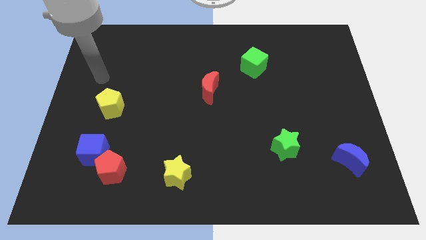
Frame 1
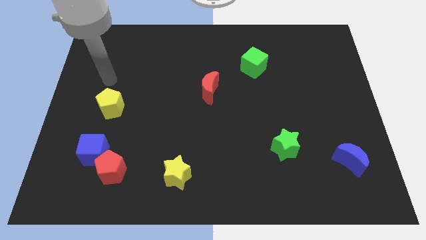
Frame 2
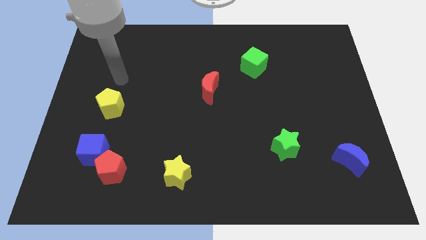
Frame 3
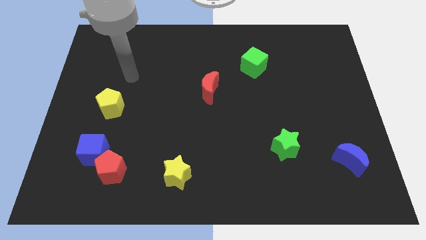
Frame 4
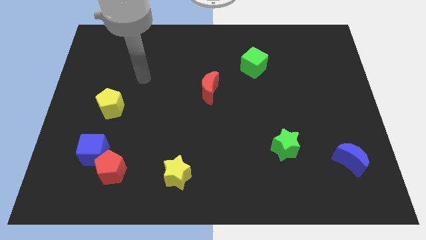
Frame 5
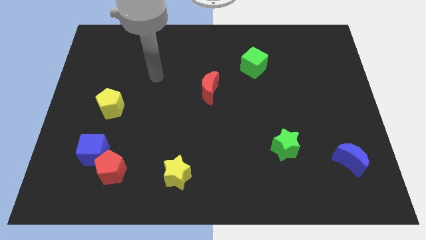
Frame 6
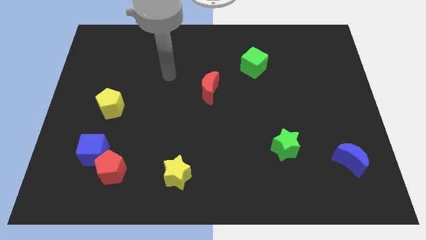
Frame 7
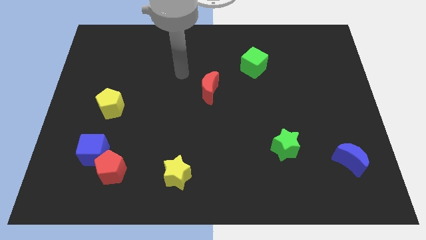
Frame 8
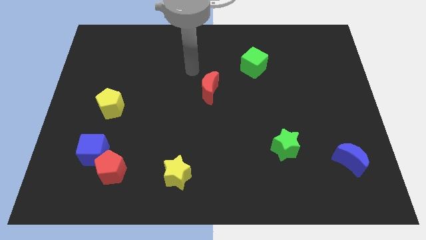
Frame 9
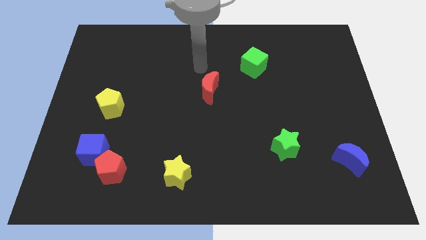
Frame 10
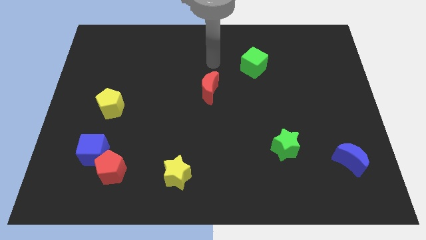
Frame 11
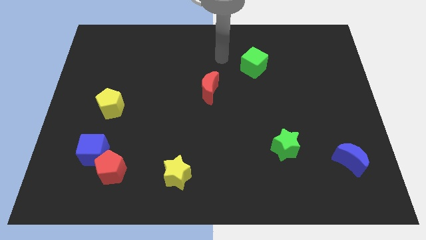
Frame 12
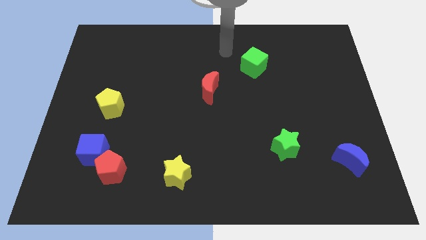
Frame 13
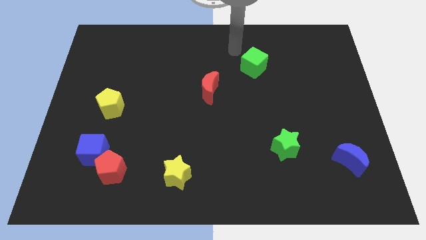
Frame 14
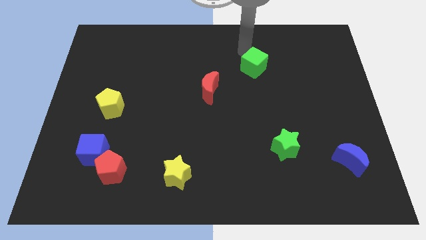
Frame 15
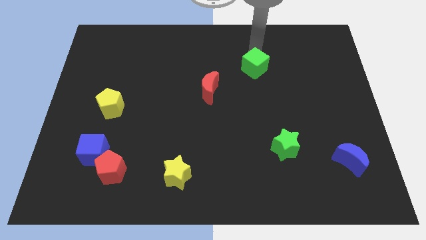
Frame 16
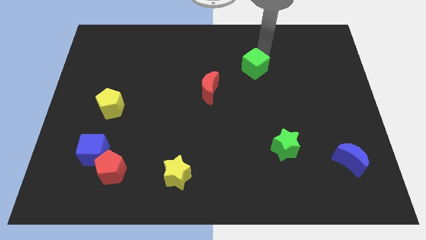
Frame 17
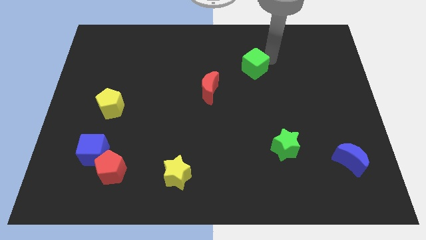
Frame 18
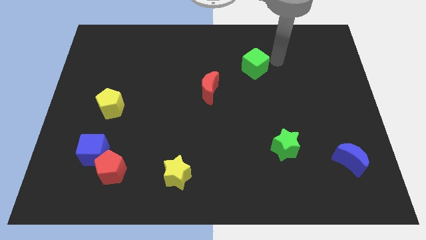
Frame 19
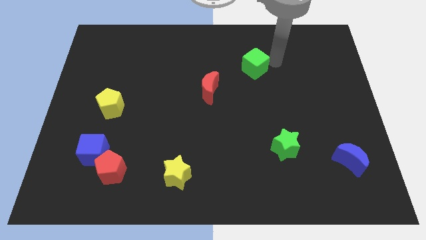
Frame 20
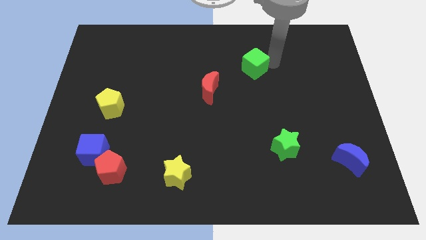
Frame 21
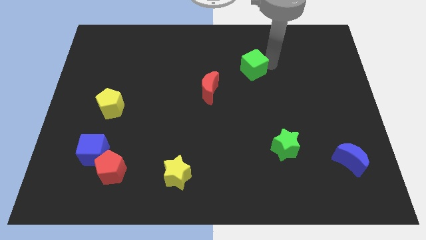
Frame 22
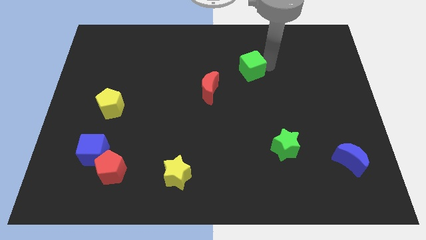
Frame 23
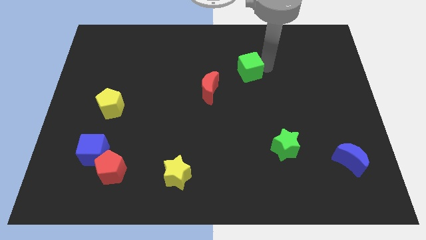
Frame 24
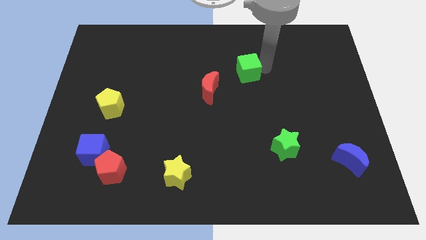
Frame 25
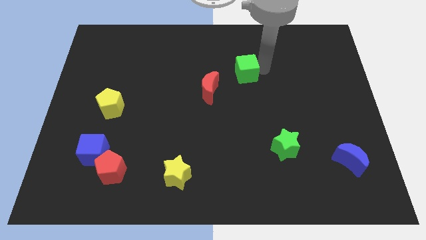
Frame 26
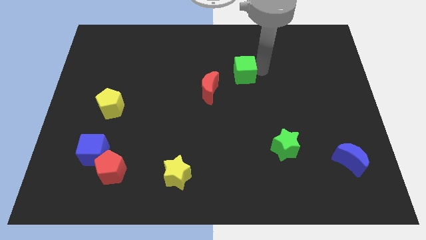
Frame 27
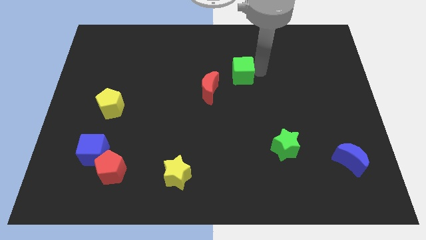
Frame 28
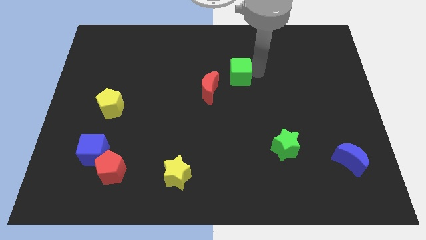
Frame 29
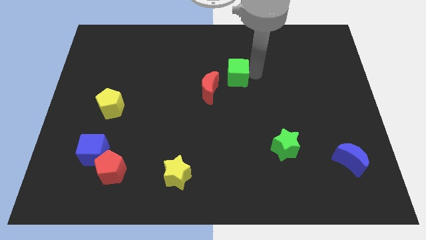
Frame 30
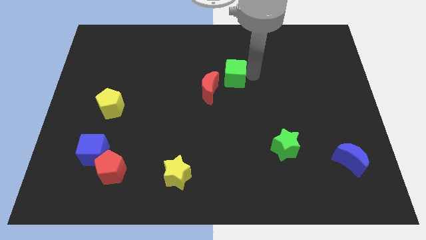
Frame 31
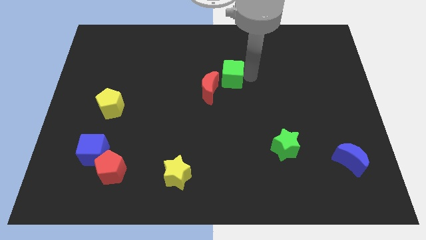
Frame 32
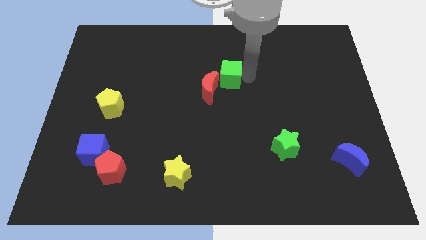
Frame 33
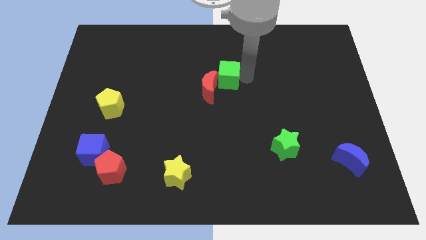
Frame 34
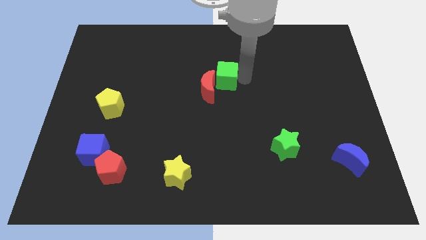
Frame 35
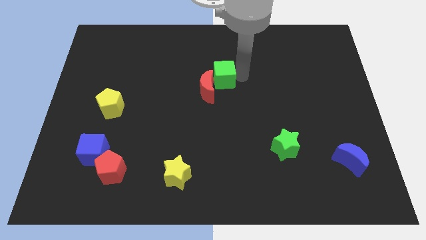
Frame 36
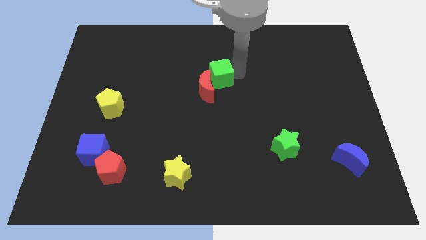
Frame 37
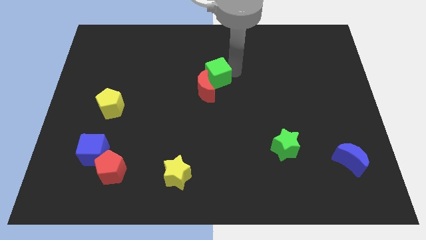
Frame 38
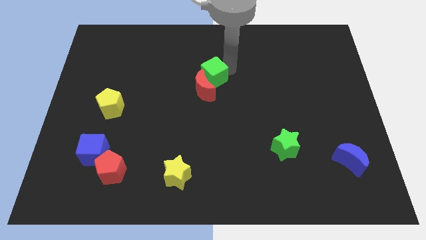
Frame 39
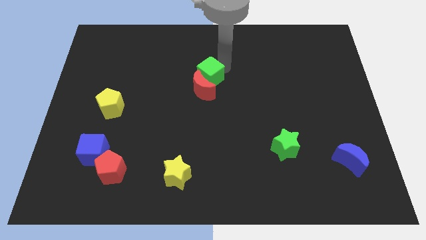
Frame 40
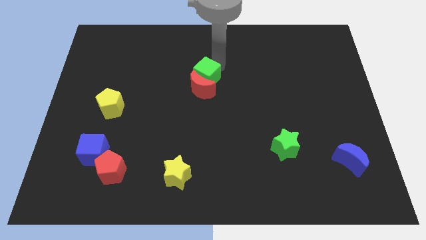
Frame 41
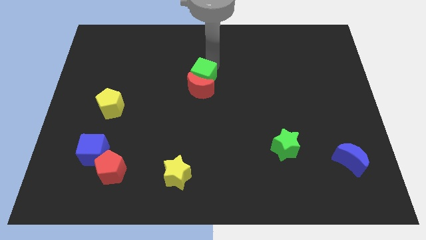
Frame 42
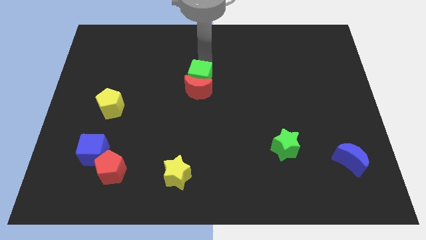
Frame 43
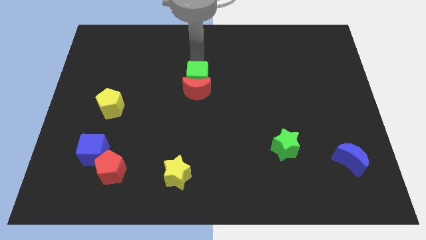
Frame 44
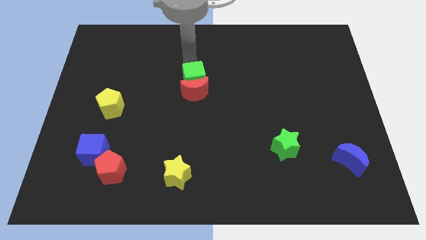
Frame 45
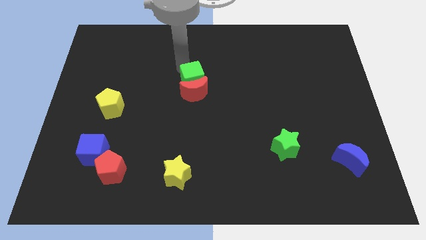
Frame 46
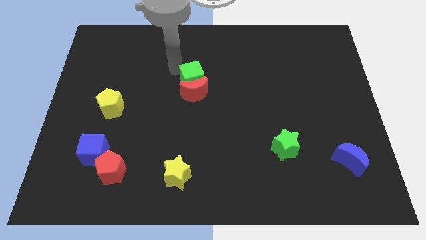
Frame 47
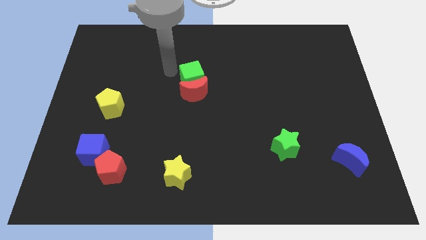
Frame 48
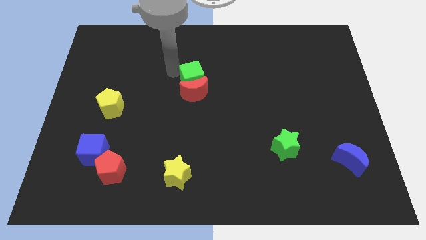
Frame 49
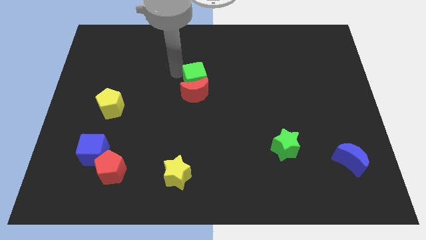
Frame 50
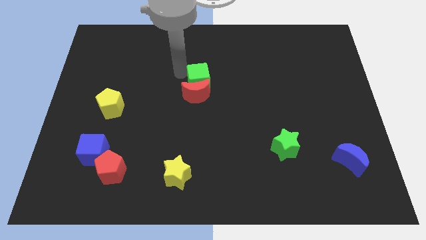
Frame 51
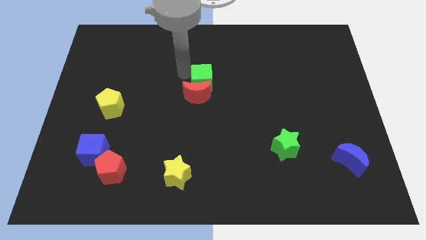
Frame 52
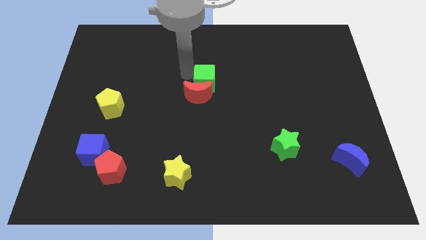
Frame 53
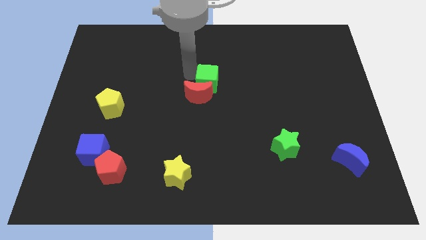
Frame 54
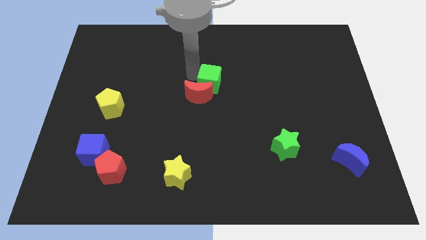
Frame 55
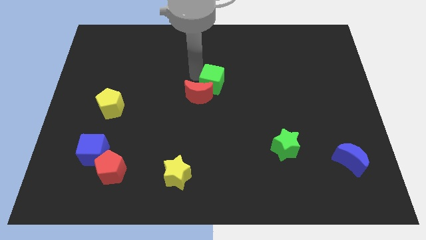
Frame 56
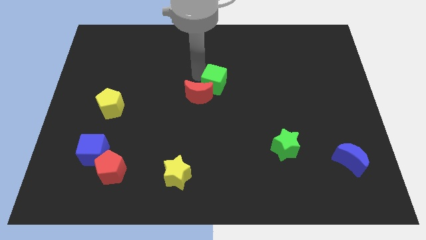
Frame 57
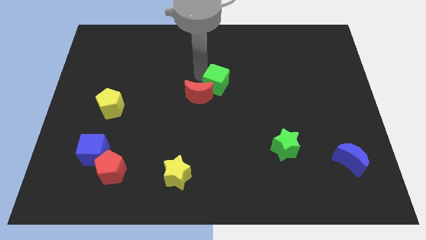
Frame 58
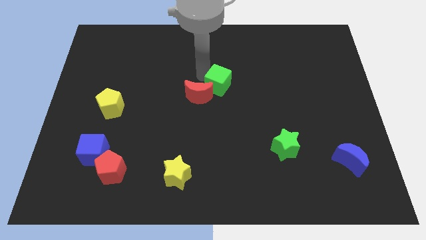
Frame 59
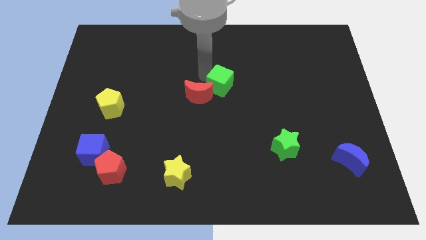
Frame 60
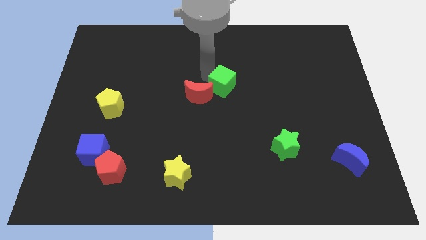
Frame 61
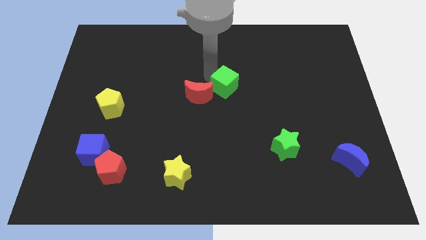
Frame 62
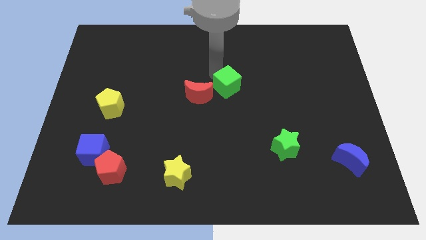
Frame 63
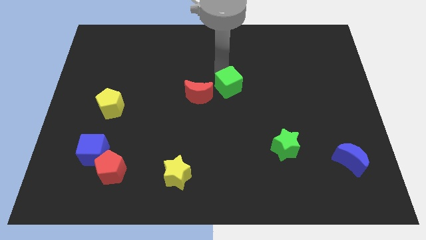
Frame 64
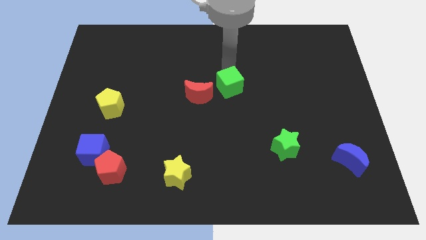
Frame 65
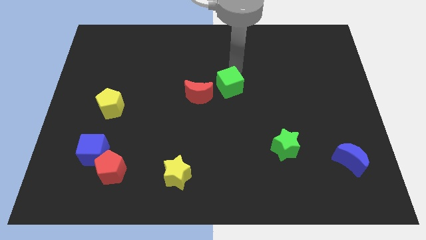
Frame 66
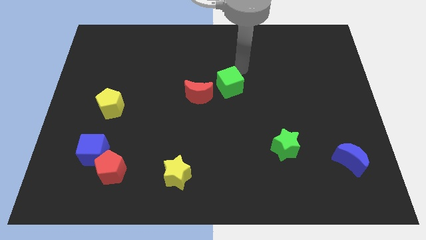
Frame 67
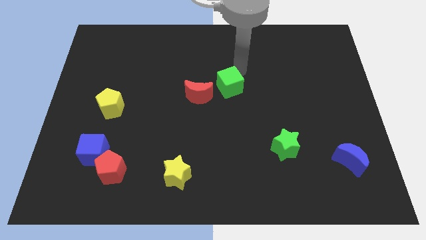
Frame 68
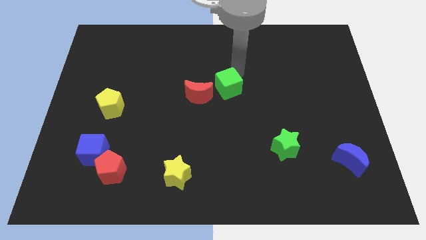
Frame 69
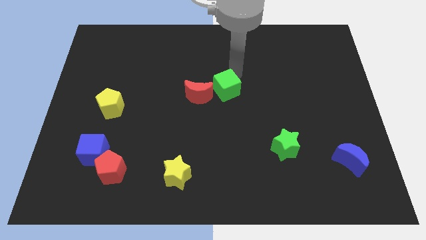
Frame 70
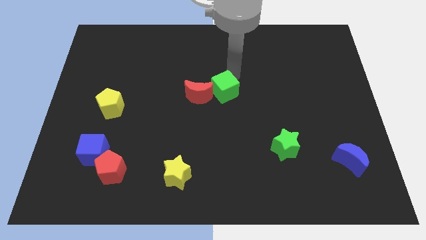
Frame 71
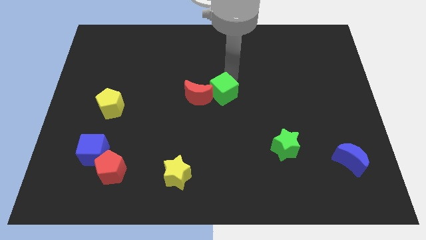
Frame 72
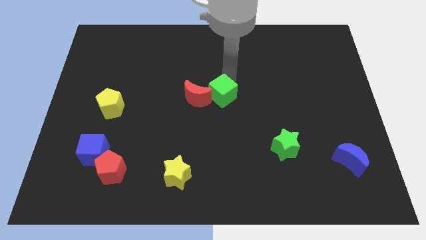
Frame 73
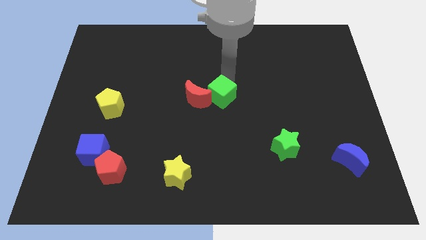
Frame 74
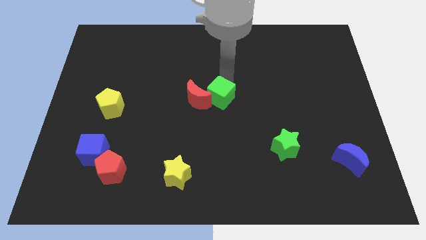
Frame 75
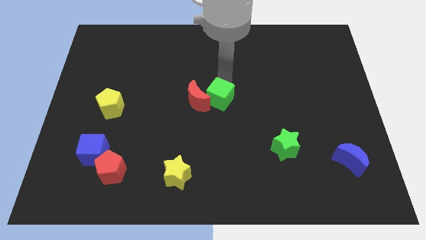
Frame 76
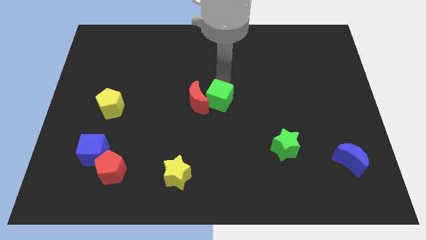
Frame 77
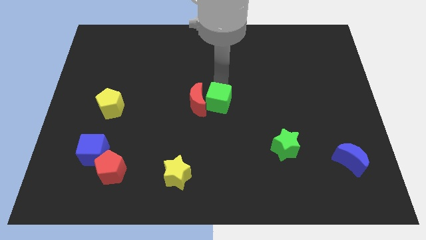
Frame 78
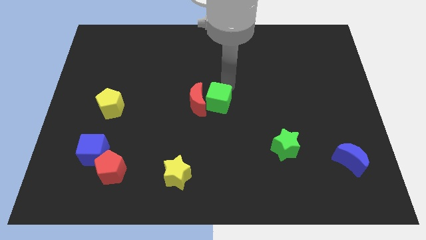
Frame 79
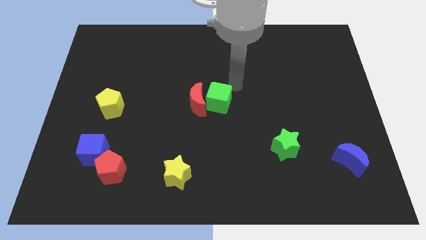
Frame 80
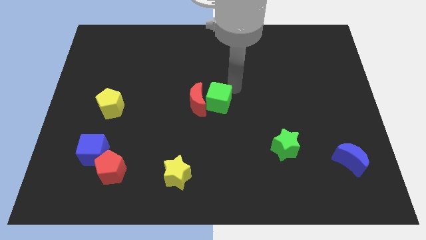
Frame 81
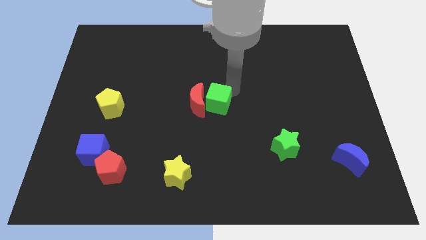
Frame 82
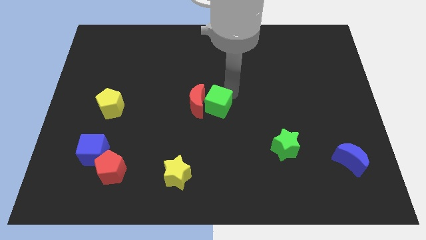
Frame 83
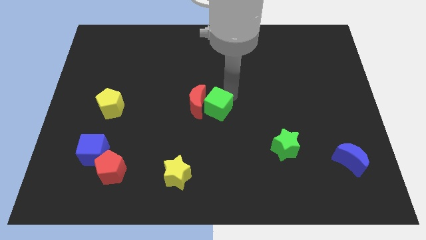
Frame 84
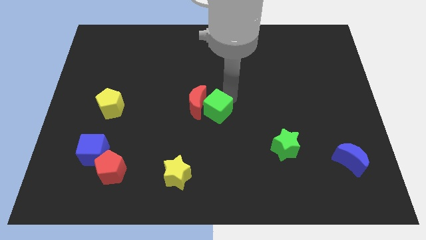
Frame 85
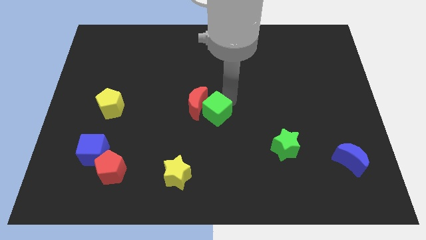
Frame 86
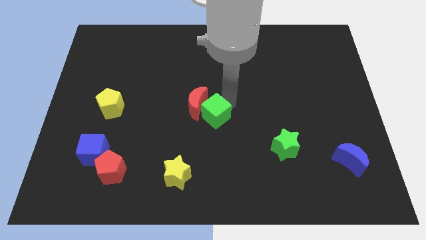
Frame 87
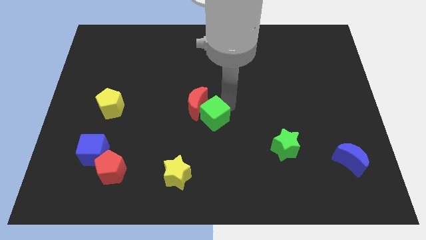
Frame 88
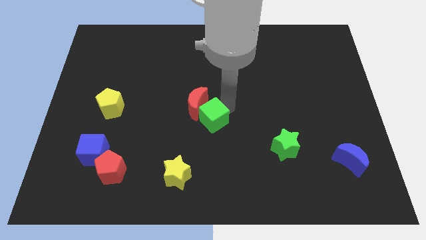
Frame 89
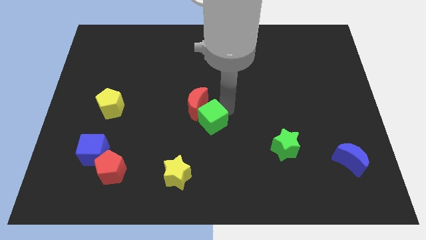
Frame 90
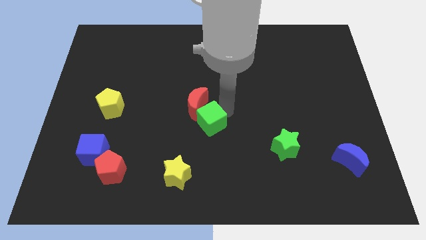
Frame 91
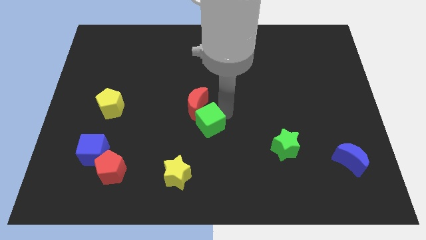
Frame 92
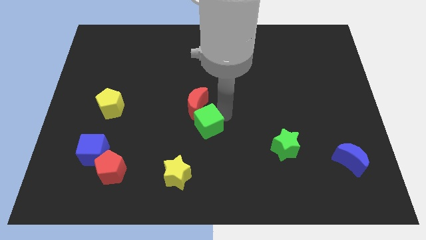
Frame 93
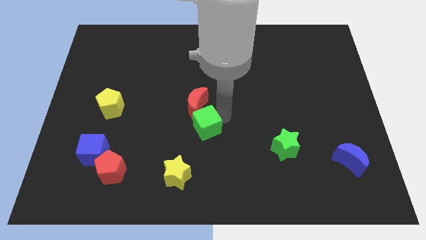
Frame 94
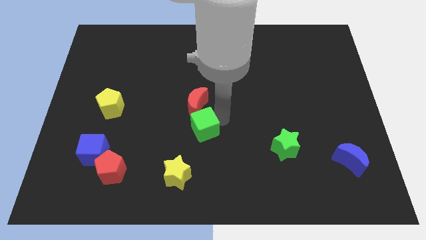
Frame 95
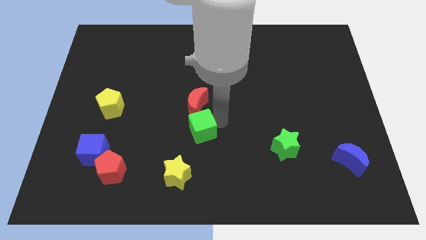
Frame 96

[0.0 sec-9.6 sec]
move the green cube above the yellow star
